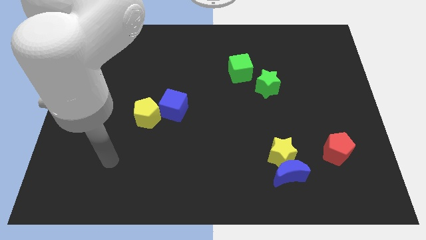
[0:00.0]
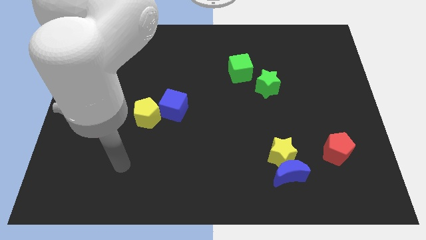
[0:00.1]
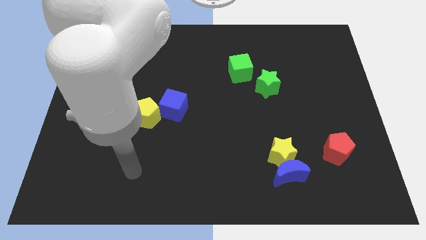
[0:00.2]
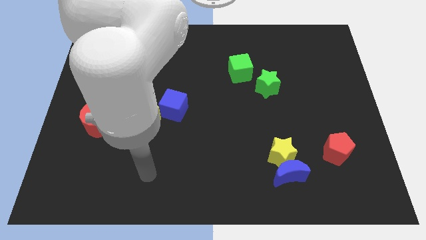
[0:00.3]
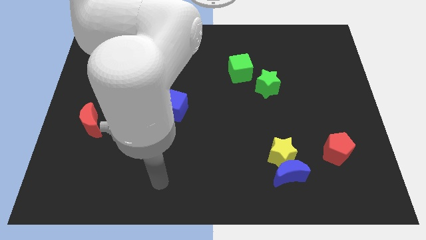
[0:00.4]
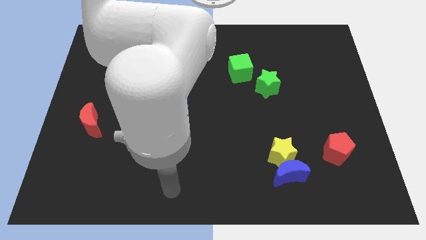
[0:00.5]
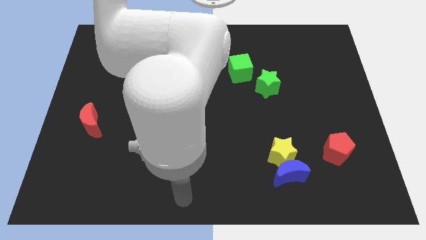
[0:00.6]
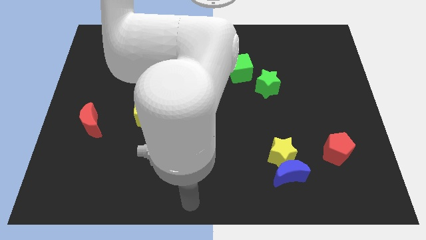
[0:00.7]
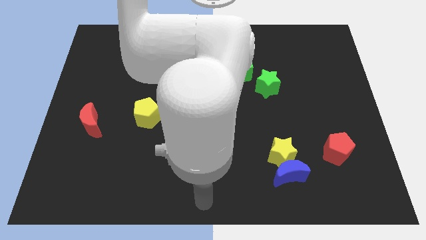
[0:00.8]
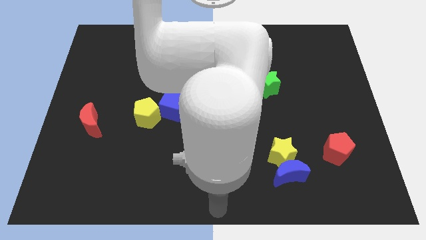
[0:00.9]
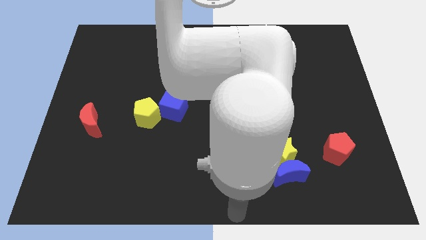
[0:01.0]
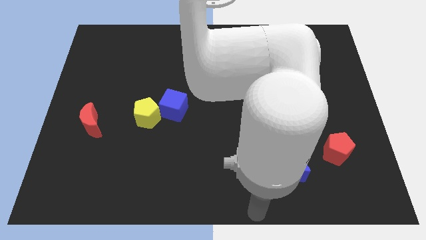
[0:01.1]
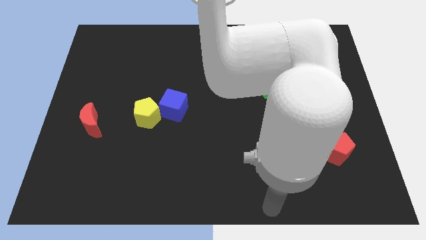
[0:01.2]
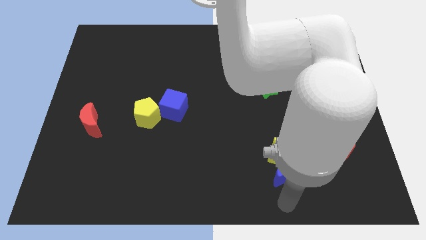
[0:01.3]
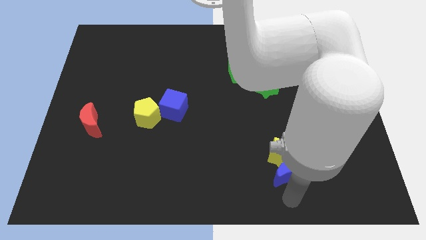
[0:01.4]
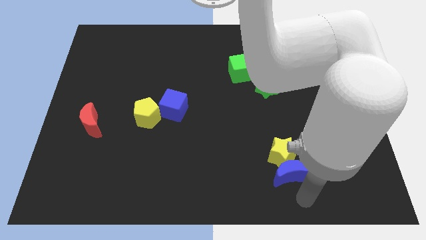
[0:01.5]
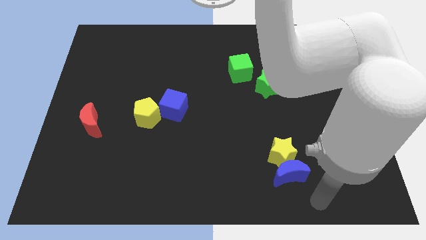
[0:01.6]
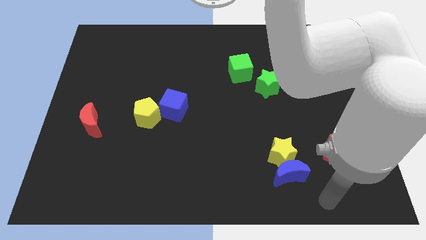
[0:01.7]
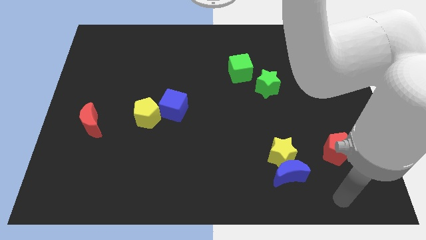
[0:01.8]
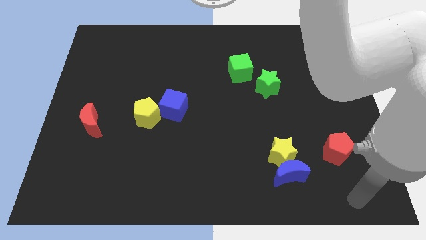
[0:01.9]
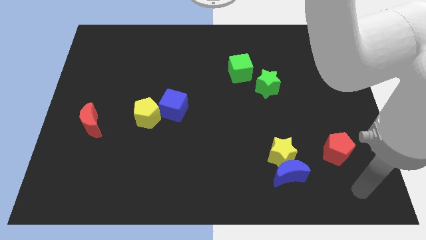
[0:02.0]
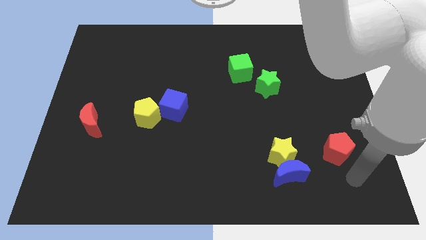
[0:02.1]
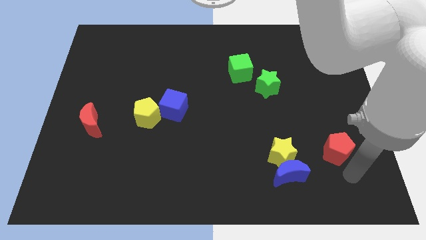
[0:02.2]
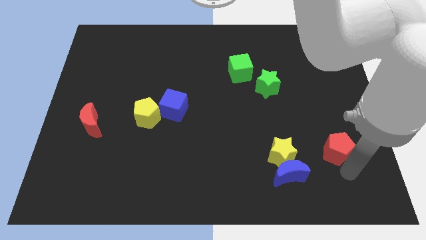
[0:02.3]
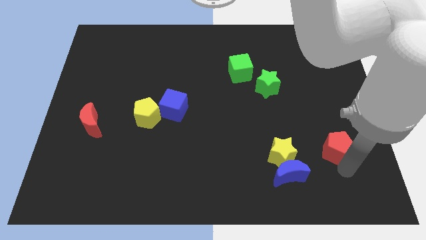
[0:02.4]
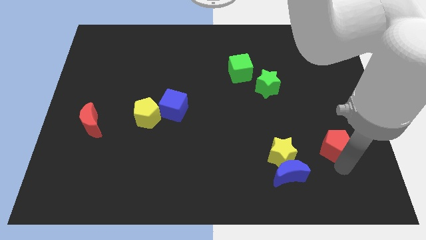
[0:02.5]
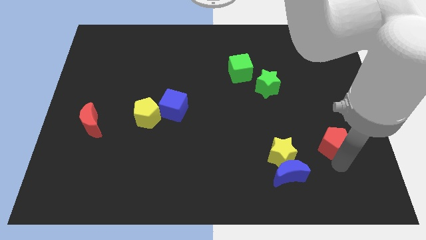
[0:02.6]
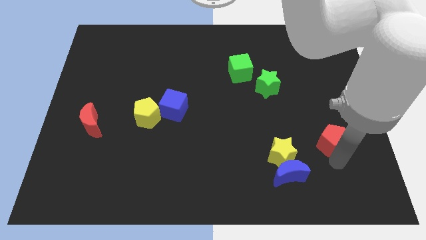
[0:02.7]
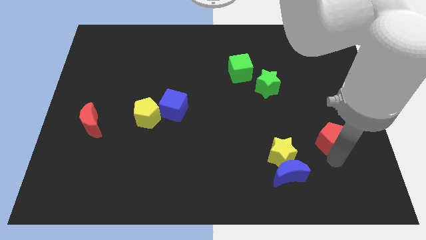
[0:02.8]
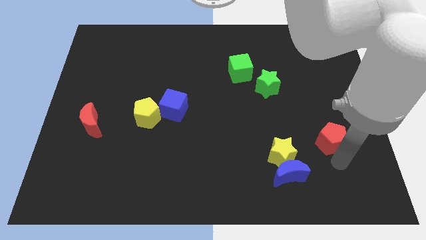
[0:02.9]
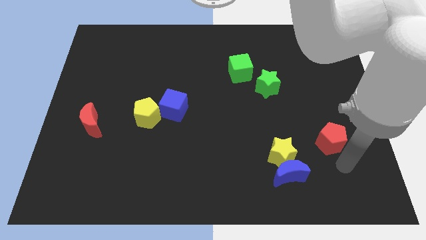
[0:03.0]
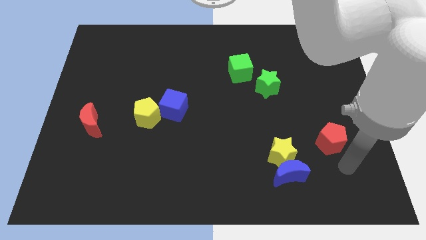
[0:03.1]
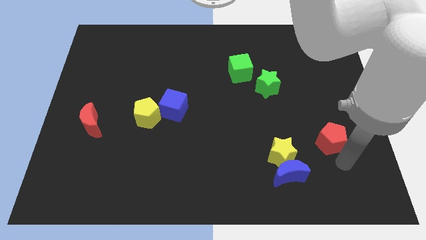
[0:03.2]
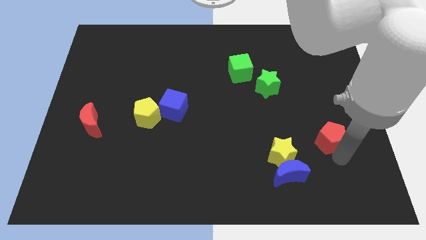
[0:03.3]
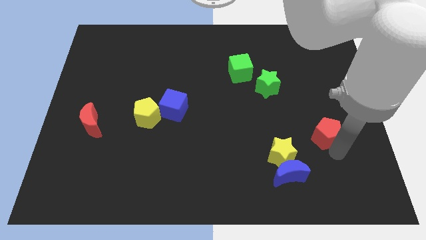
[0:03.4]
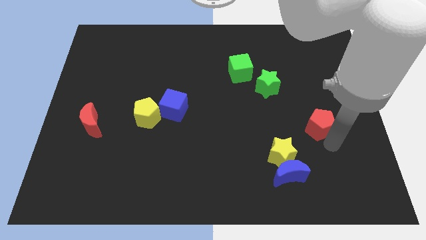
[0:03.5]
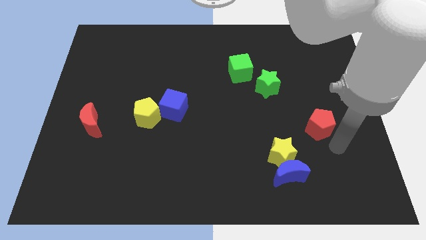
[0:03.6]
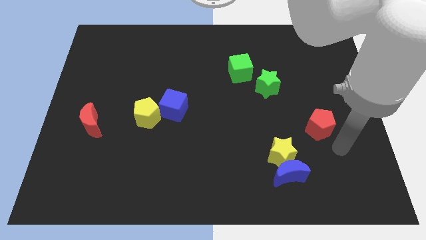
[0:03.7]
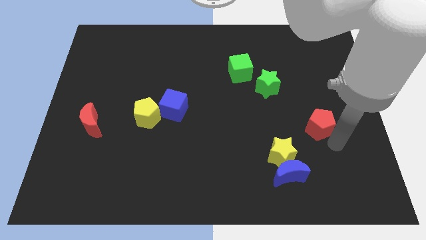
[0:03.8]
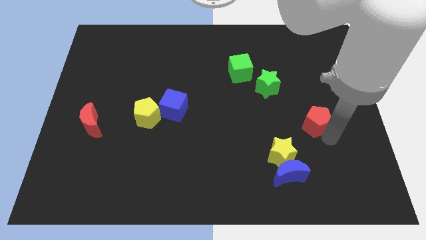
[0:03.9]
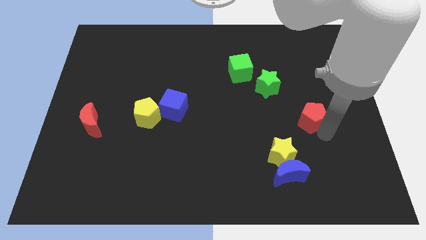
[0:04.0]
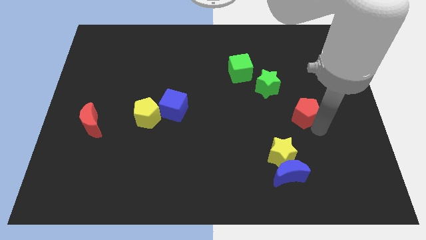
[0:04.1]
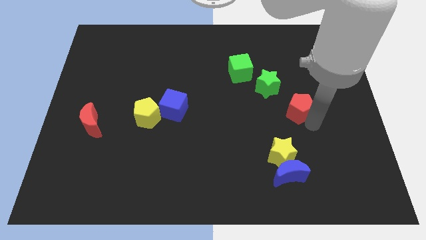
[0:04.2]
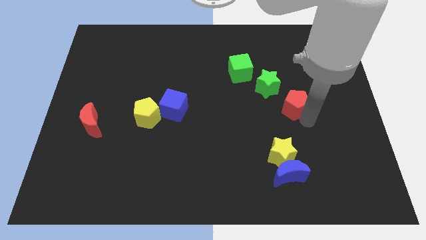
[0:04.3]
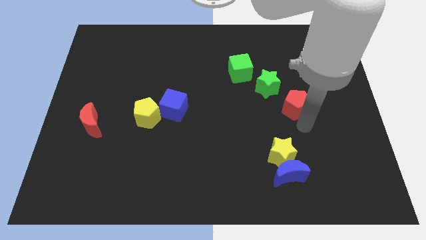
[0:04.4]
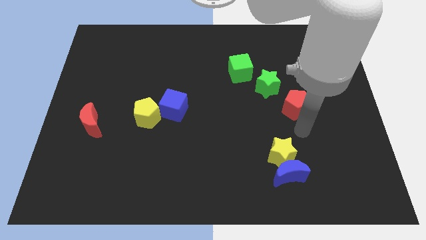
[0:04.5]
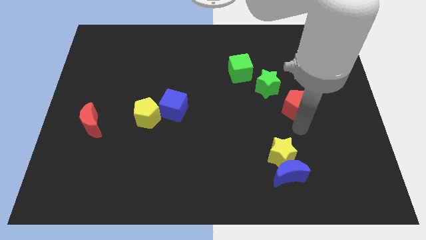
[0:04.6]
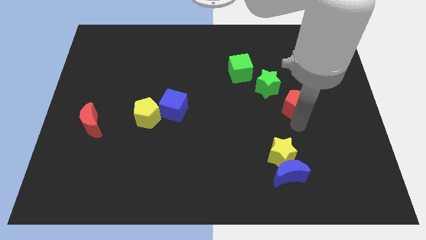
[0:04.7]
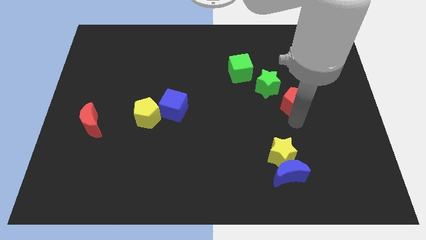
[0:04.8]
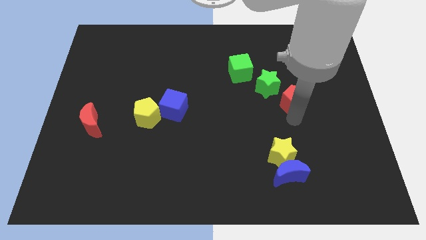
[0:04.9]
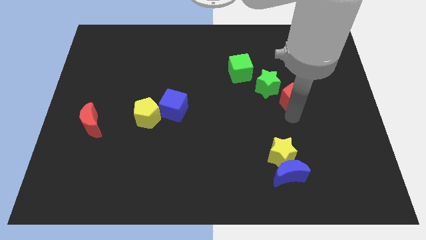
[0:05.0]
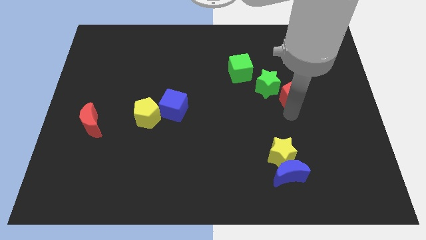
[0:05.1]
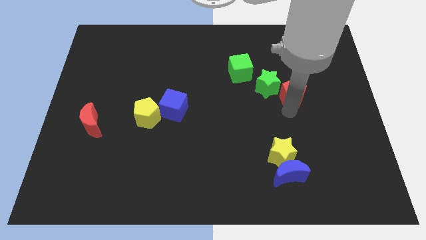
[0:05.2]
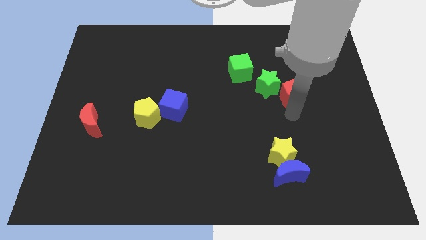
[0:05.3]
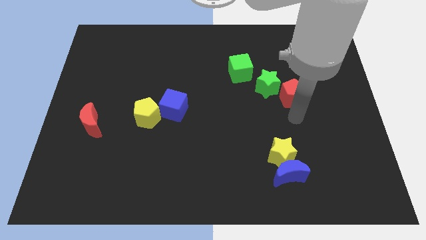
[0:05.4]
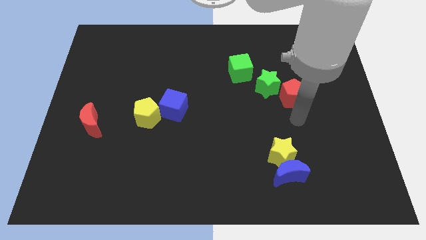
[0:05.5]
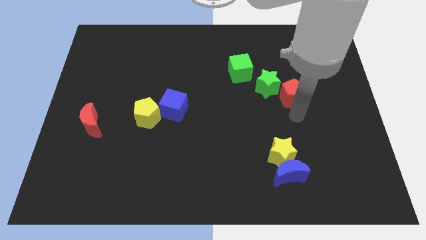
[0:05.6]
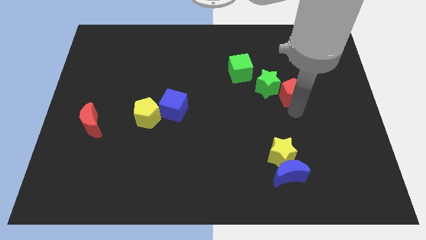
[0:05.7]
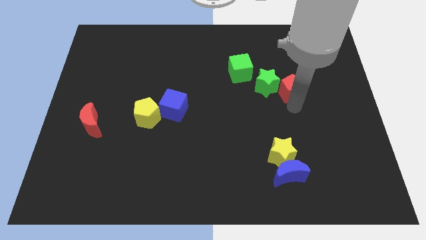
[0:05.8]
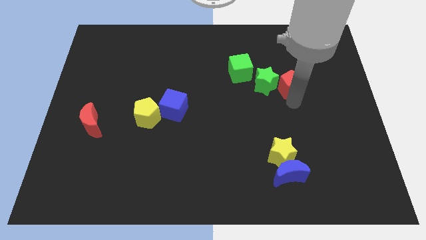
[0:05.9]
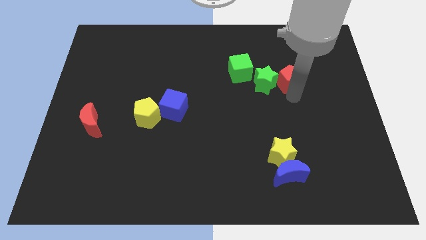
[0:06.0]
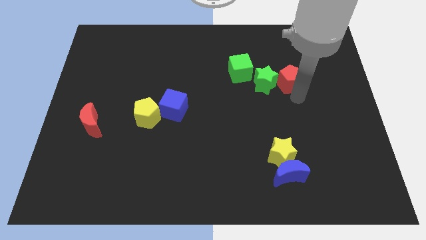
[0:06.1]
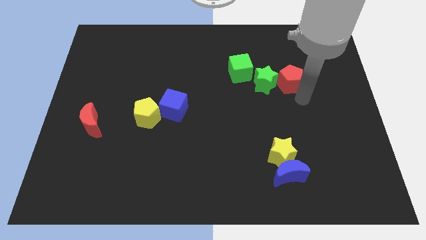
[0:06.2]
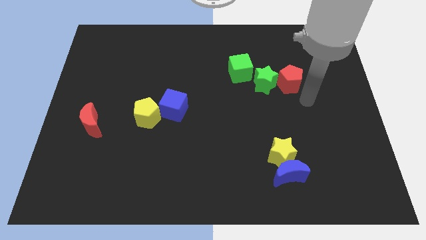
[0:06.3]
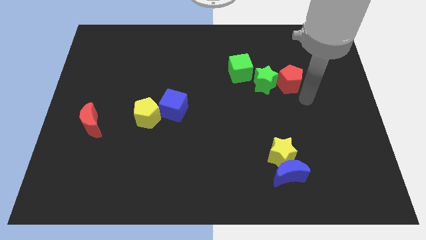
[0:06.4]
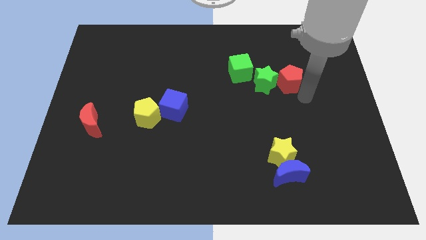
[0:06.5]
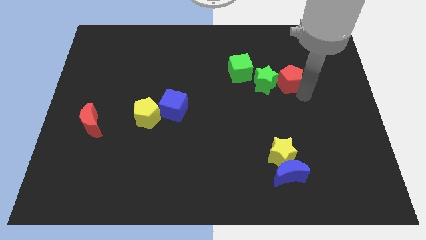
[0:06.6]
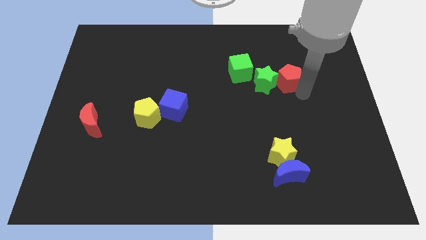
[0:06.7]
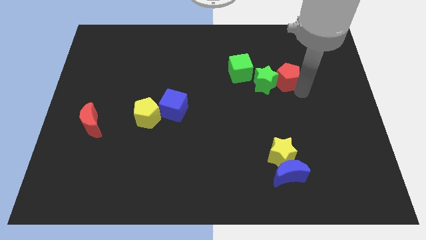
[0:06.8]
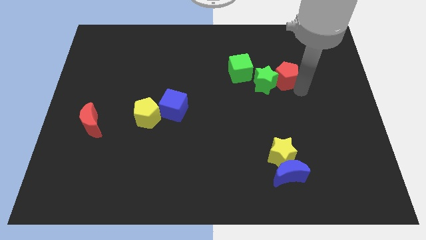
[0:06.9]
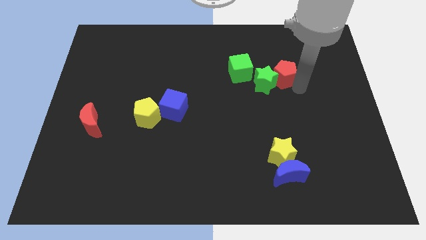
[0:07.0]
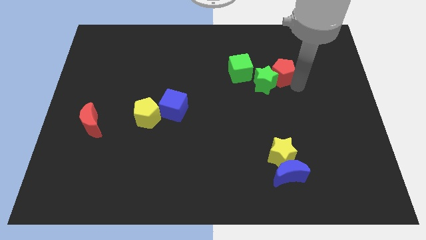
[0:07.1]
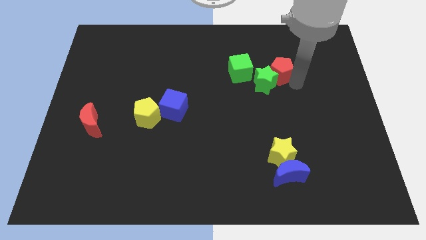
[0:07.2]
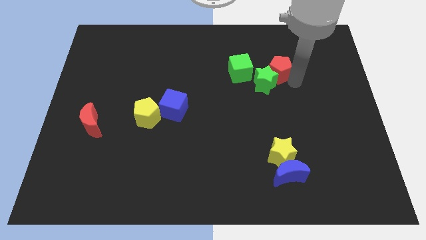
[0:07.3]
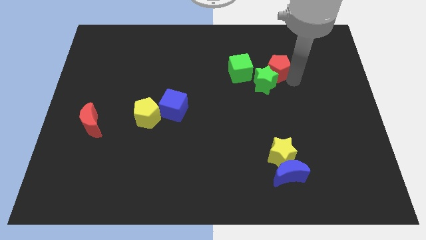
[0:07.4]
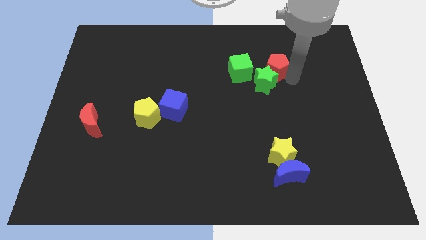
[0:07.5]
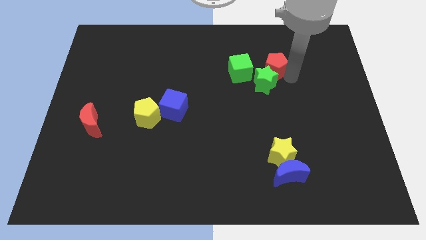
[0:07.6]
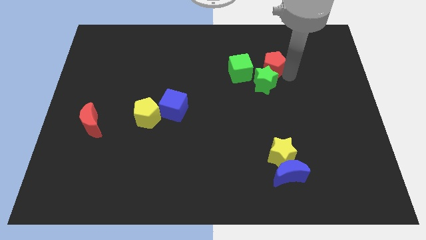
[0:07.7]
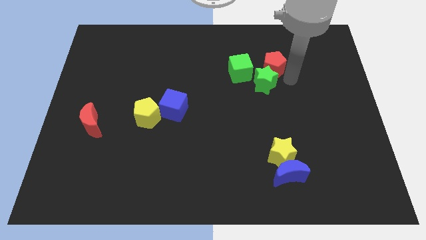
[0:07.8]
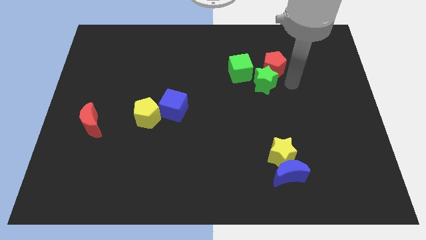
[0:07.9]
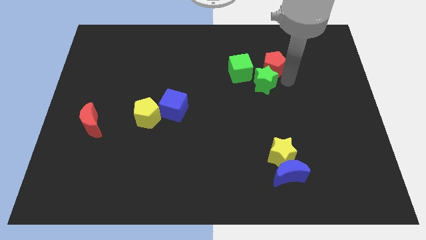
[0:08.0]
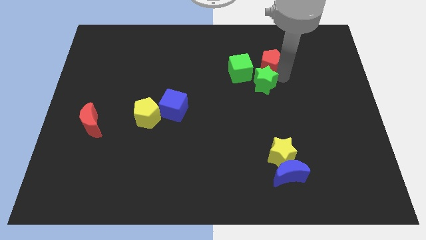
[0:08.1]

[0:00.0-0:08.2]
slide the red pentagon to the top right side of the green cube
